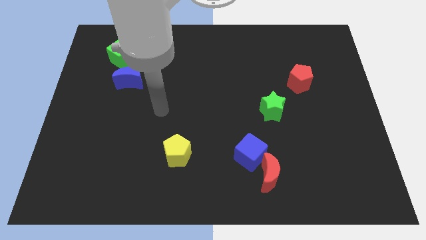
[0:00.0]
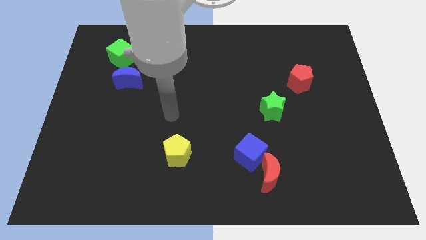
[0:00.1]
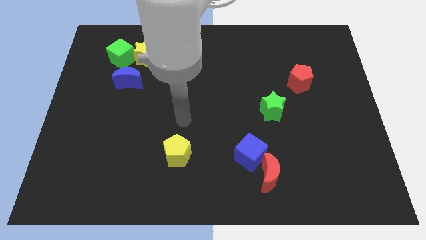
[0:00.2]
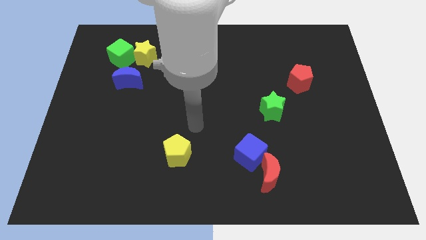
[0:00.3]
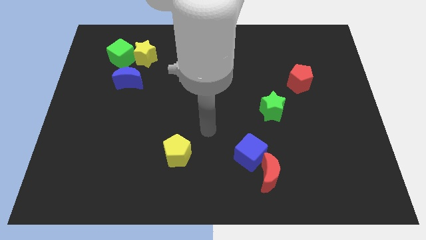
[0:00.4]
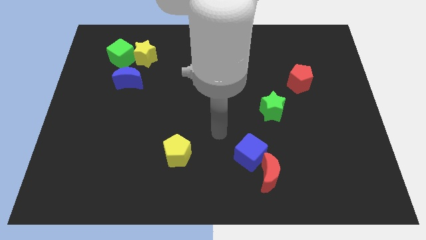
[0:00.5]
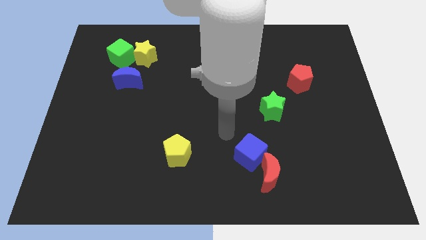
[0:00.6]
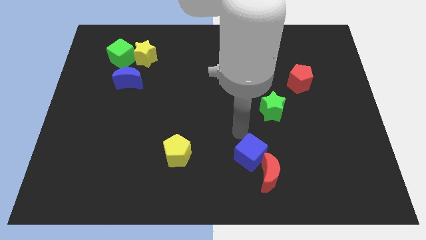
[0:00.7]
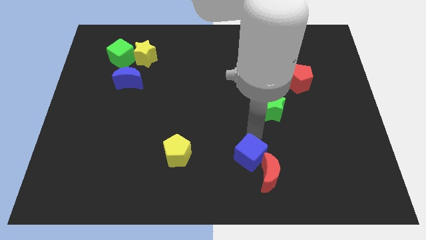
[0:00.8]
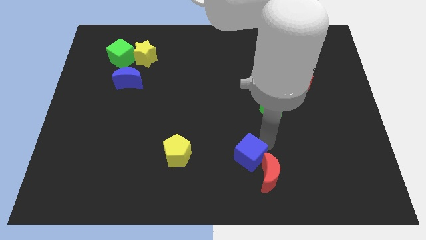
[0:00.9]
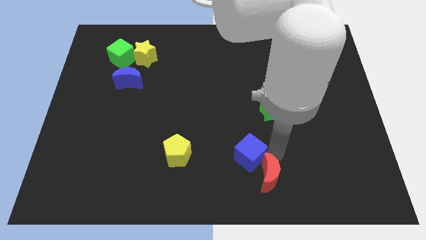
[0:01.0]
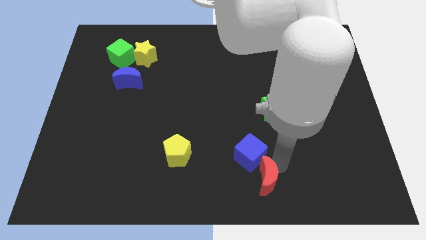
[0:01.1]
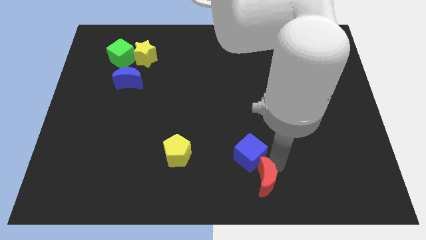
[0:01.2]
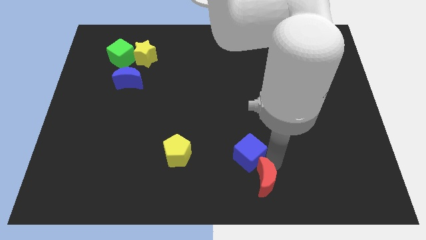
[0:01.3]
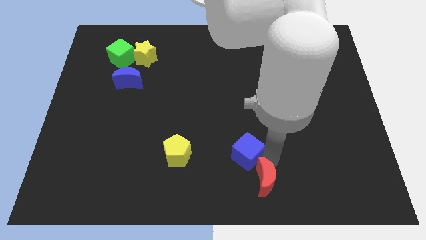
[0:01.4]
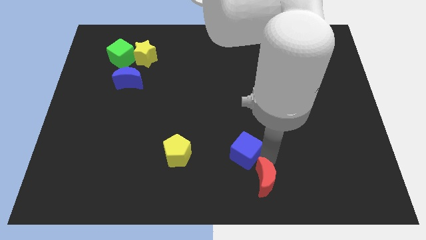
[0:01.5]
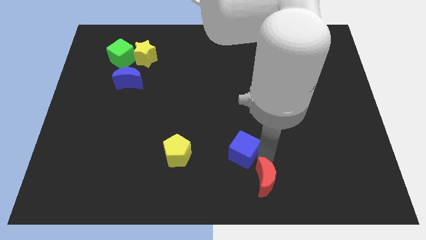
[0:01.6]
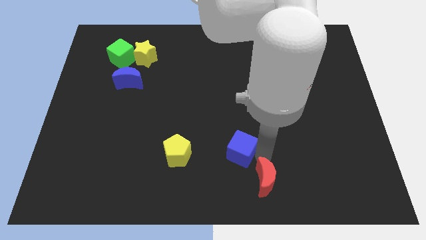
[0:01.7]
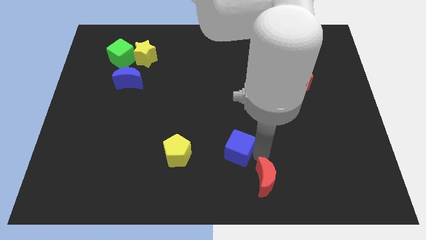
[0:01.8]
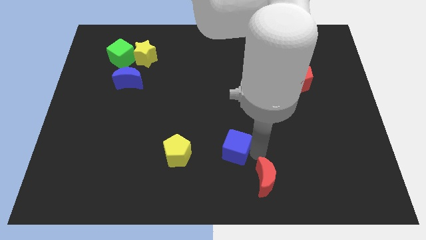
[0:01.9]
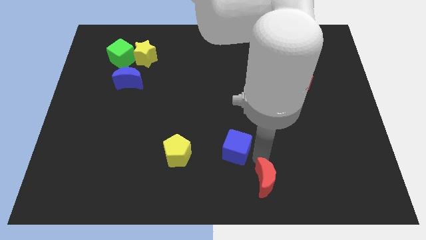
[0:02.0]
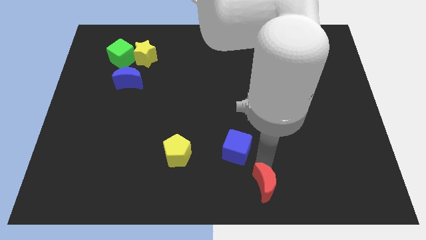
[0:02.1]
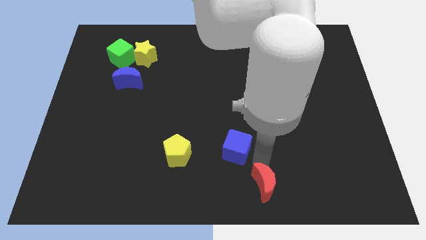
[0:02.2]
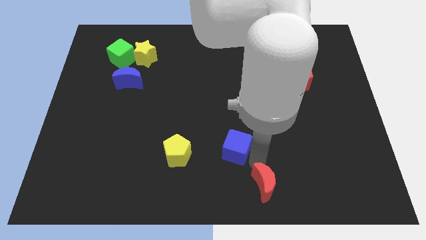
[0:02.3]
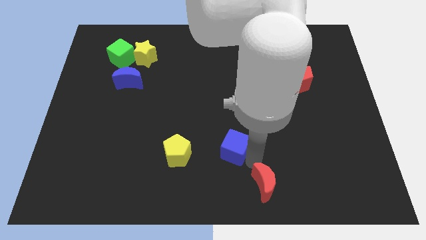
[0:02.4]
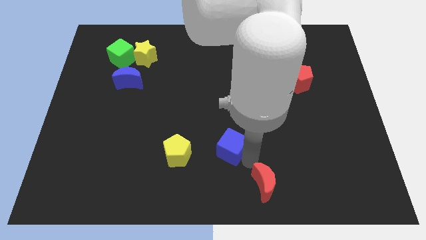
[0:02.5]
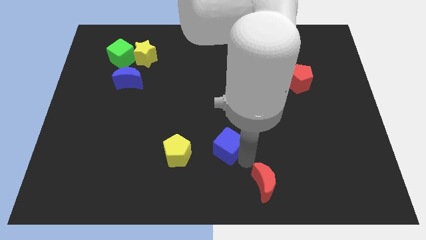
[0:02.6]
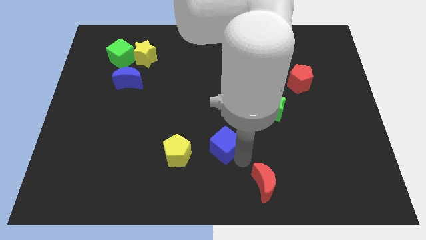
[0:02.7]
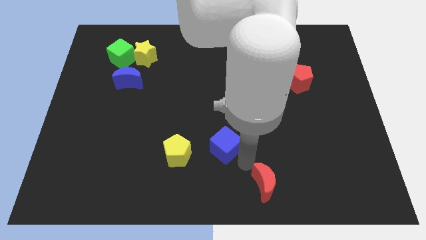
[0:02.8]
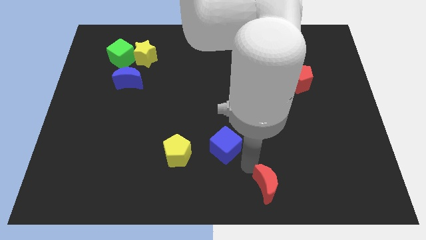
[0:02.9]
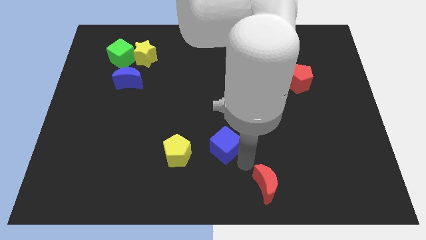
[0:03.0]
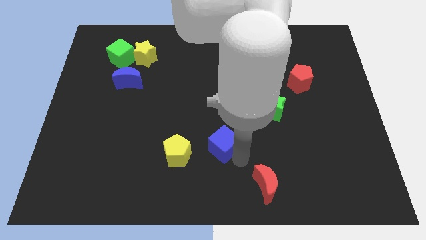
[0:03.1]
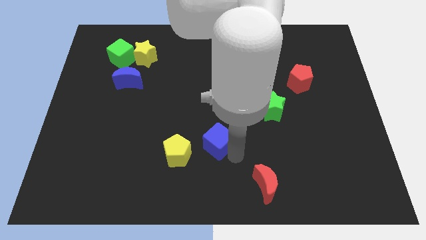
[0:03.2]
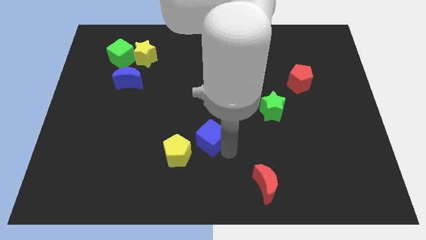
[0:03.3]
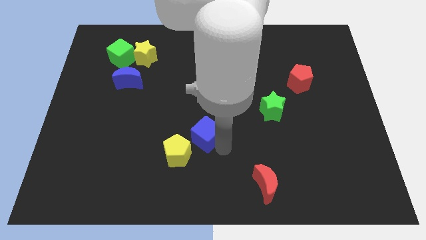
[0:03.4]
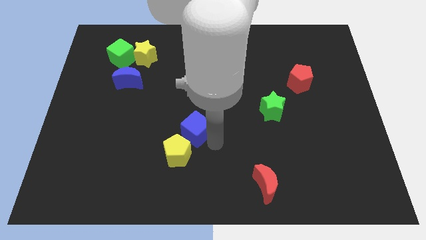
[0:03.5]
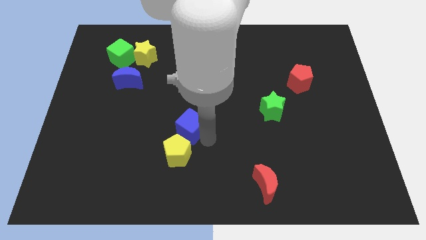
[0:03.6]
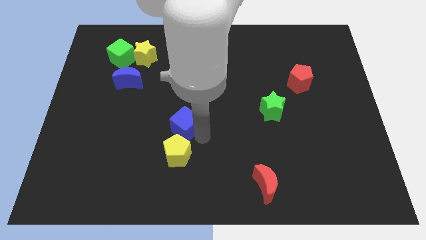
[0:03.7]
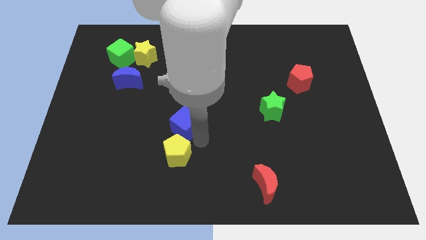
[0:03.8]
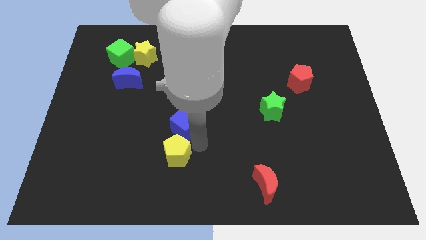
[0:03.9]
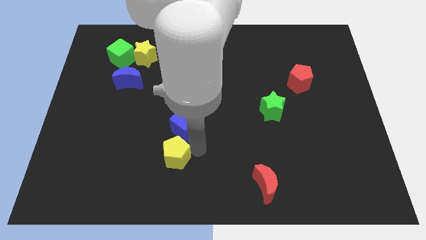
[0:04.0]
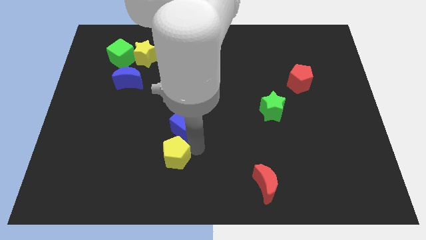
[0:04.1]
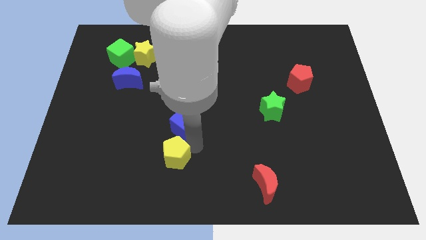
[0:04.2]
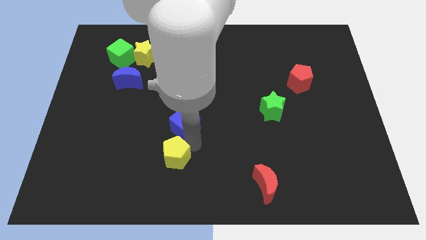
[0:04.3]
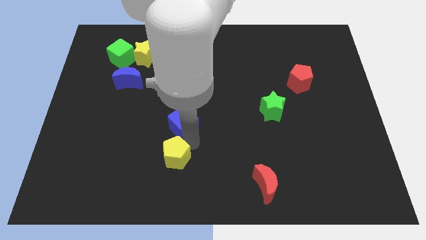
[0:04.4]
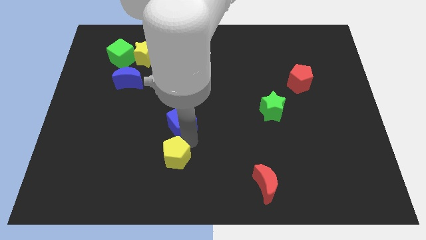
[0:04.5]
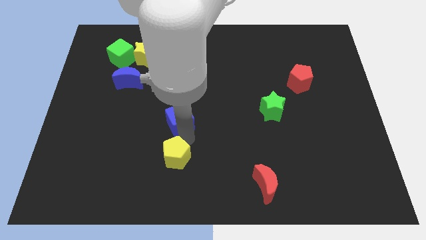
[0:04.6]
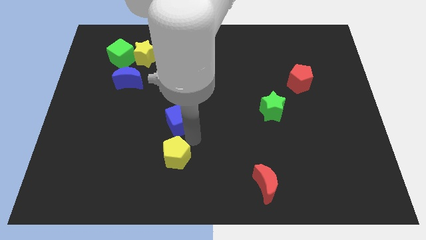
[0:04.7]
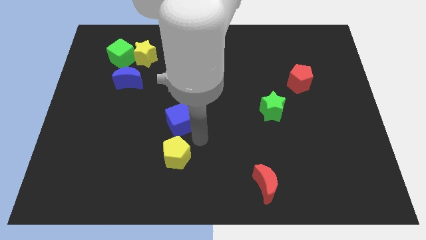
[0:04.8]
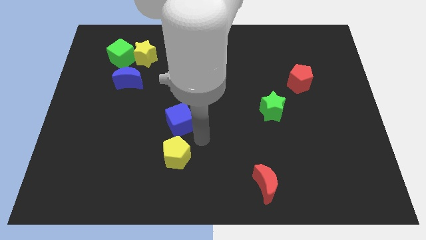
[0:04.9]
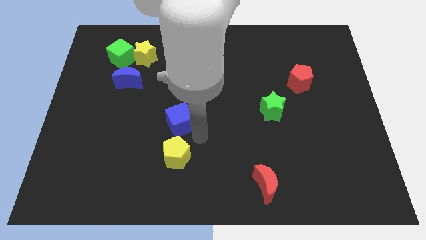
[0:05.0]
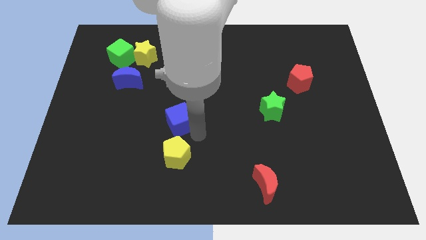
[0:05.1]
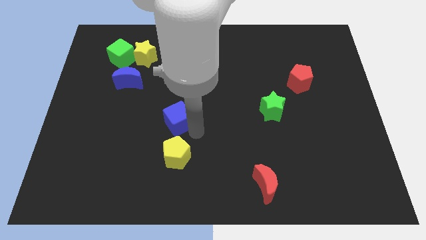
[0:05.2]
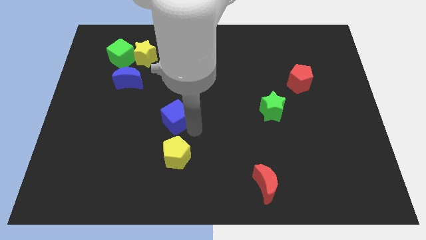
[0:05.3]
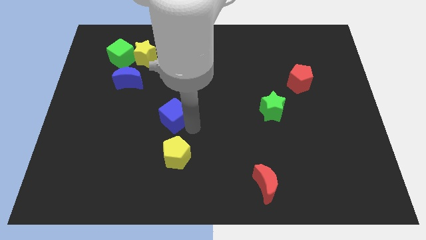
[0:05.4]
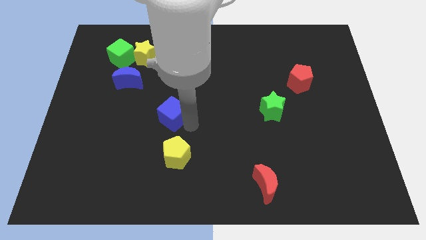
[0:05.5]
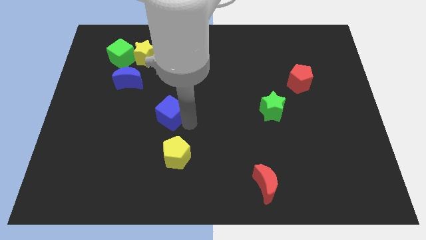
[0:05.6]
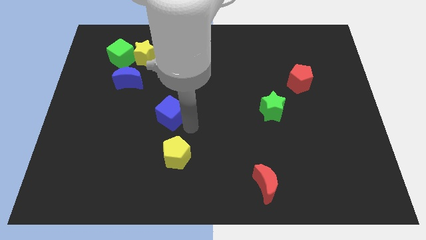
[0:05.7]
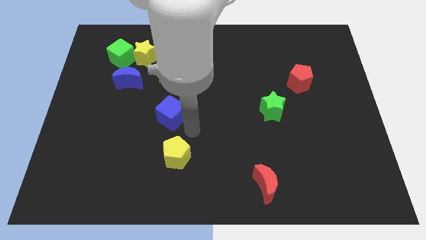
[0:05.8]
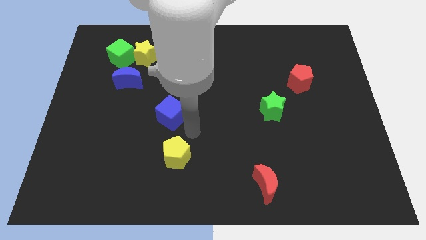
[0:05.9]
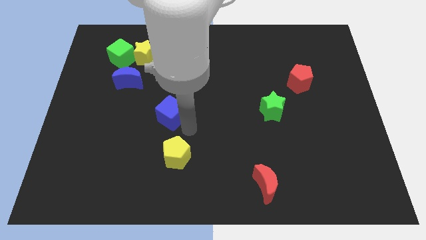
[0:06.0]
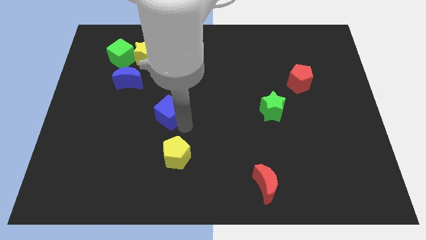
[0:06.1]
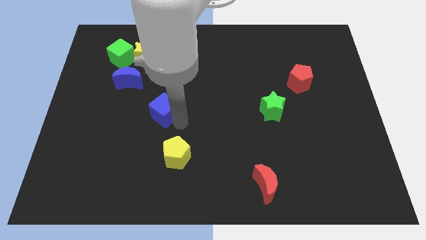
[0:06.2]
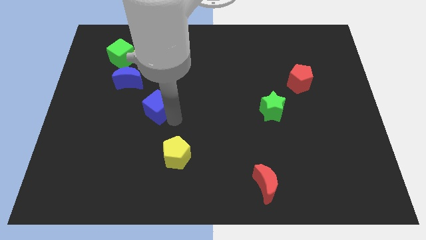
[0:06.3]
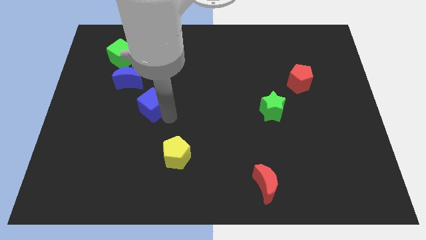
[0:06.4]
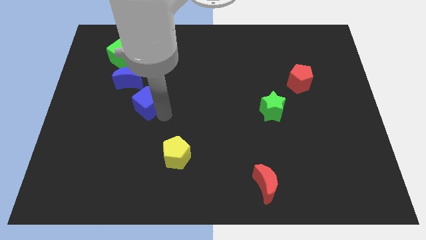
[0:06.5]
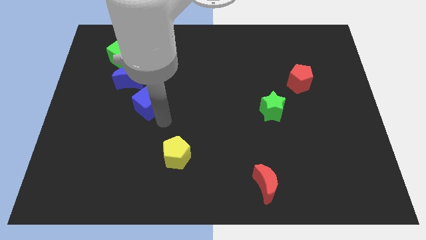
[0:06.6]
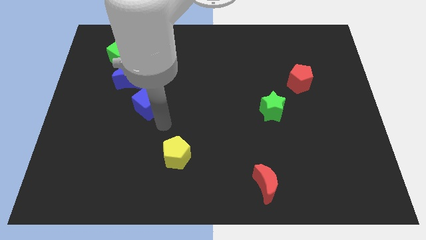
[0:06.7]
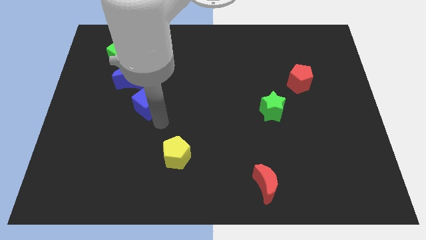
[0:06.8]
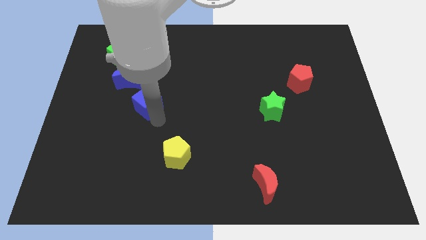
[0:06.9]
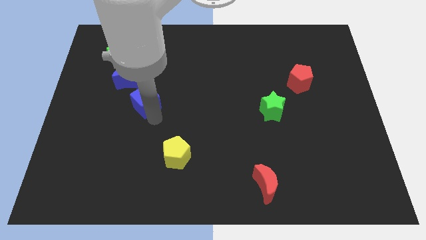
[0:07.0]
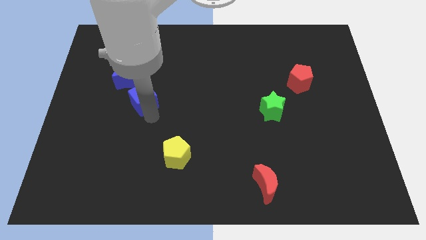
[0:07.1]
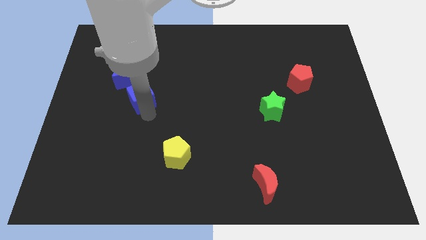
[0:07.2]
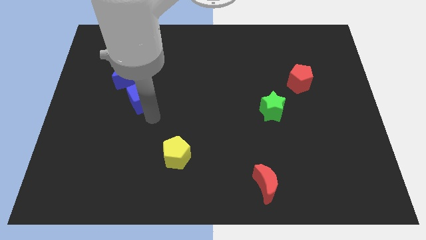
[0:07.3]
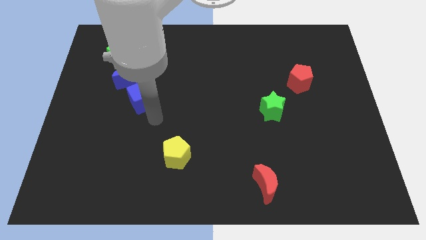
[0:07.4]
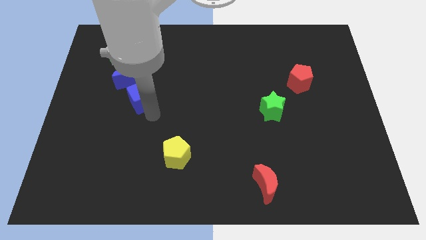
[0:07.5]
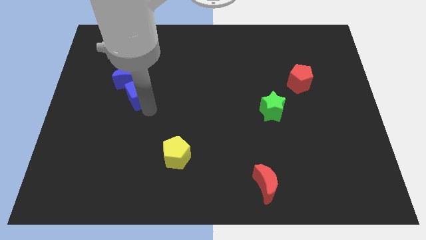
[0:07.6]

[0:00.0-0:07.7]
move the blue cube to the blue moon

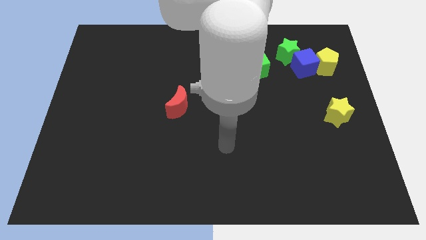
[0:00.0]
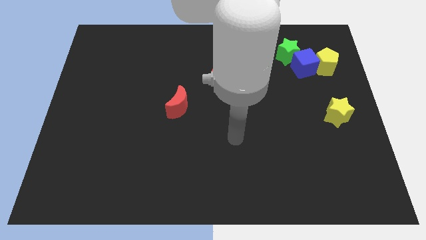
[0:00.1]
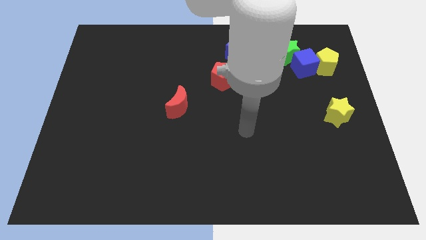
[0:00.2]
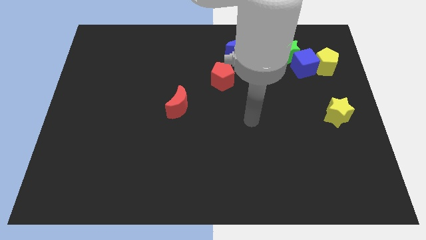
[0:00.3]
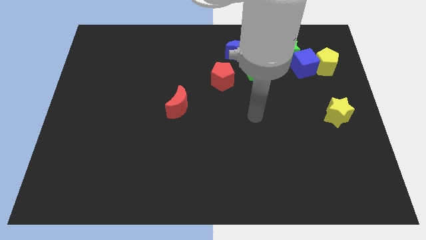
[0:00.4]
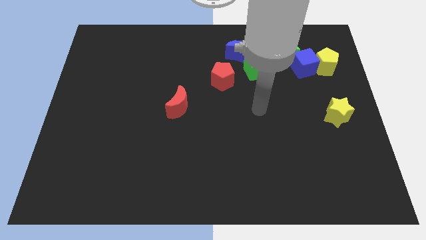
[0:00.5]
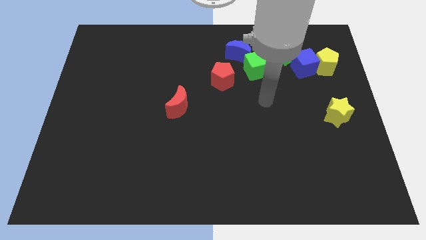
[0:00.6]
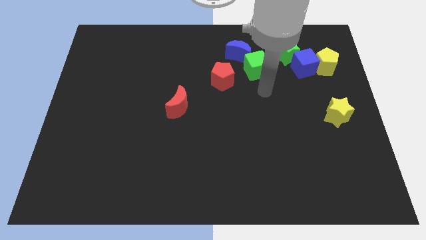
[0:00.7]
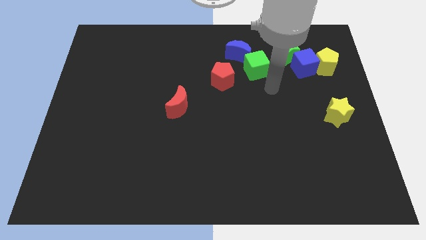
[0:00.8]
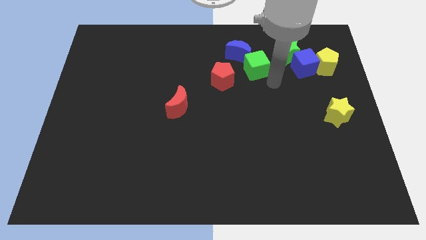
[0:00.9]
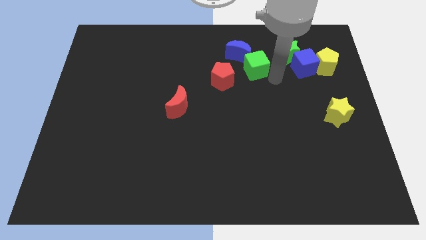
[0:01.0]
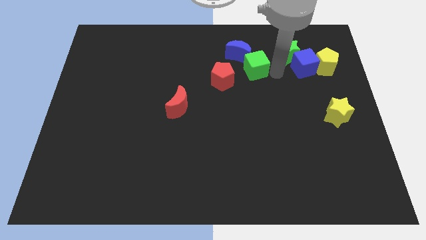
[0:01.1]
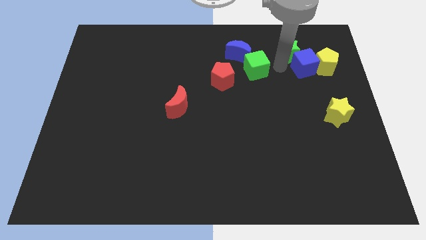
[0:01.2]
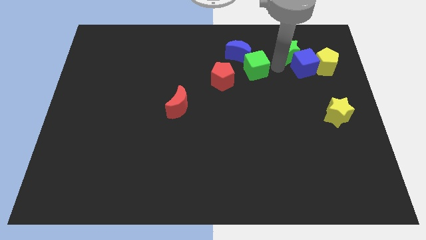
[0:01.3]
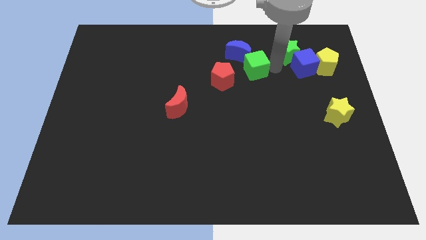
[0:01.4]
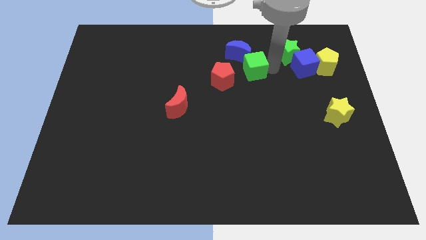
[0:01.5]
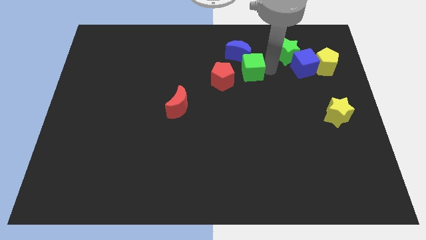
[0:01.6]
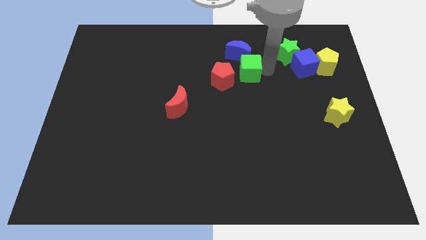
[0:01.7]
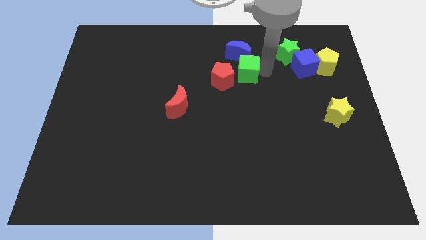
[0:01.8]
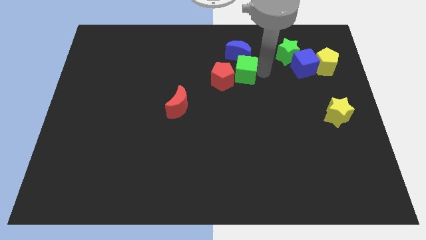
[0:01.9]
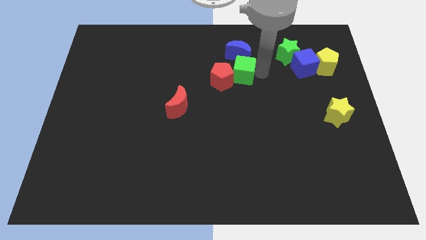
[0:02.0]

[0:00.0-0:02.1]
push the green cube close to the red pentagon
